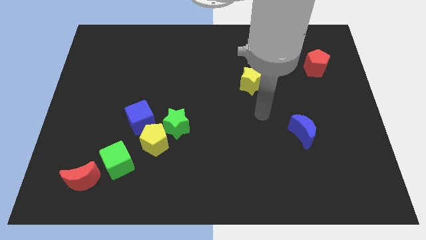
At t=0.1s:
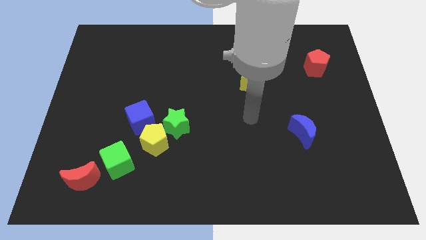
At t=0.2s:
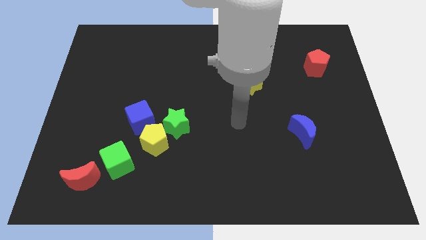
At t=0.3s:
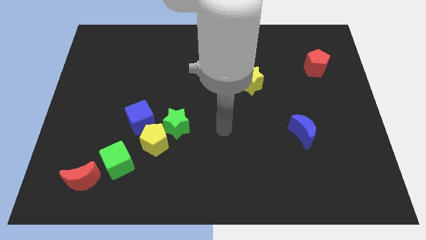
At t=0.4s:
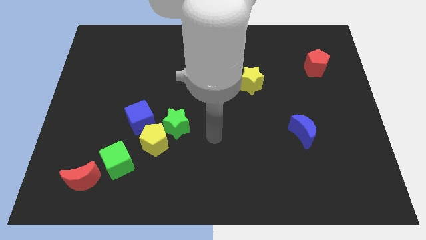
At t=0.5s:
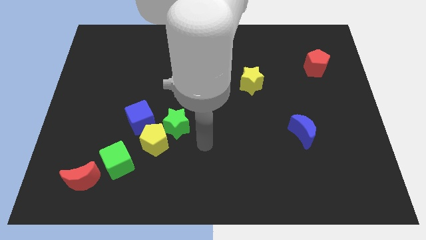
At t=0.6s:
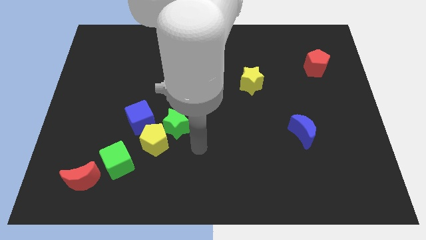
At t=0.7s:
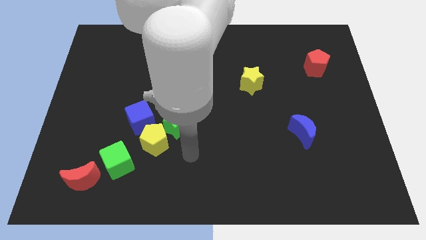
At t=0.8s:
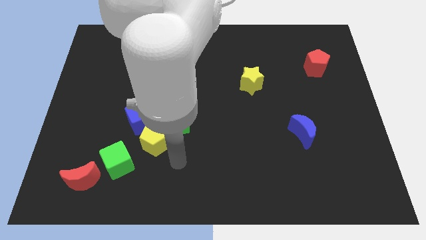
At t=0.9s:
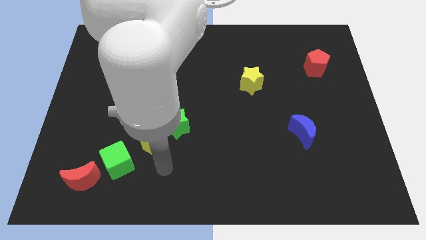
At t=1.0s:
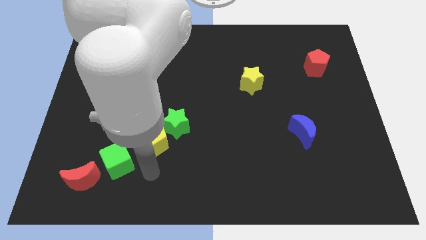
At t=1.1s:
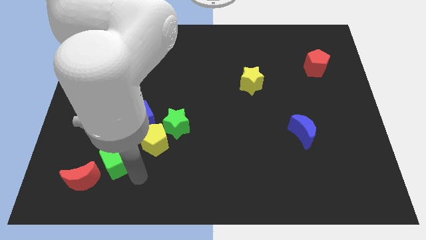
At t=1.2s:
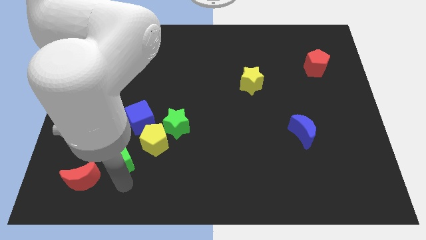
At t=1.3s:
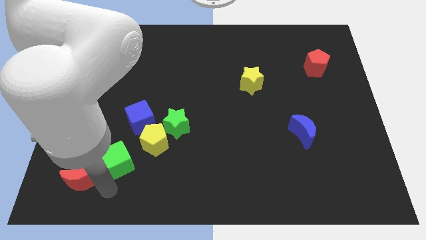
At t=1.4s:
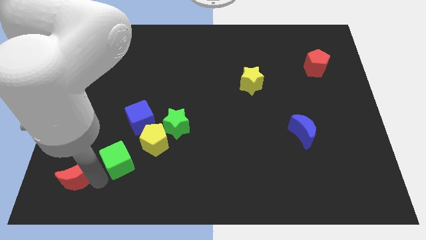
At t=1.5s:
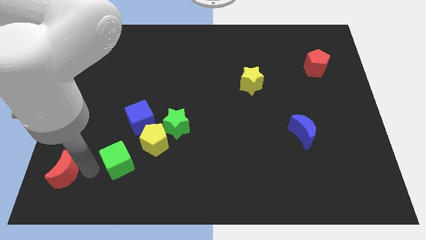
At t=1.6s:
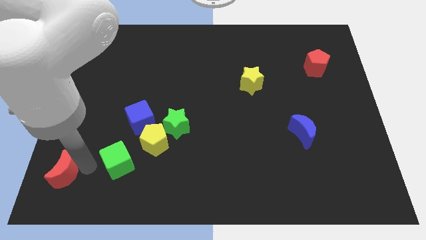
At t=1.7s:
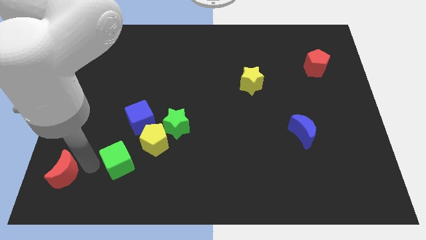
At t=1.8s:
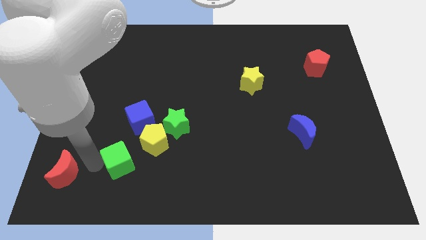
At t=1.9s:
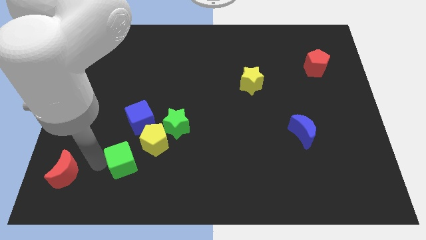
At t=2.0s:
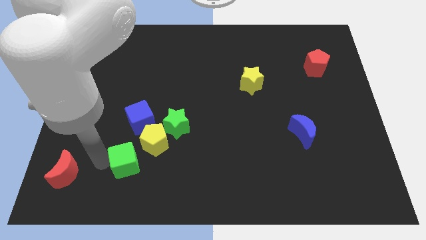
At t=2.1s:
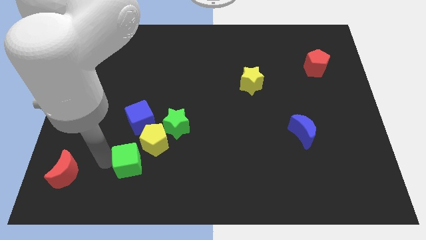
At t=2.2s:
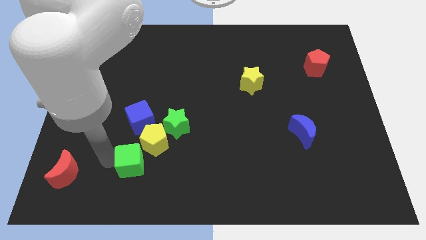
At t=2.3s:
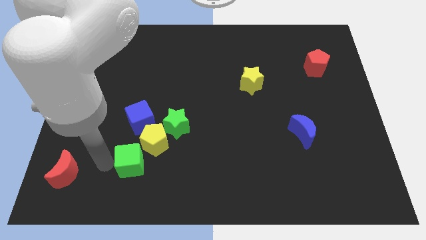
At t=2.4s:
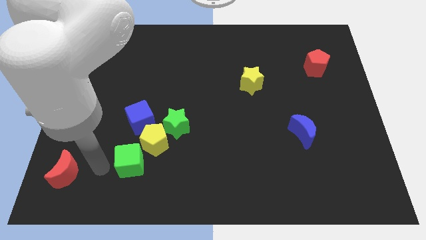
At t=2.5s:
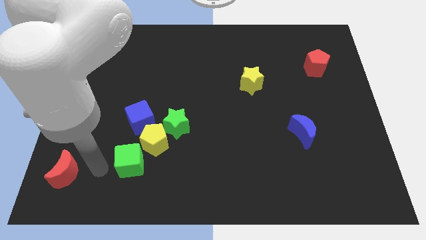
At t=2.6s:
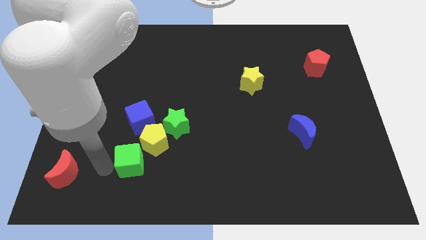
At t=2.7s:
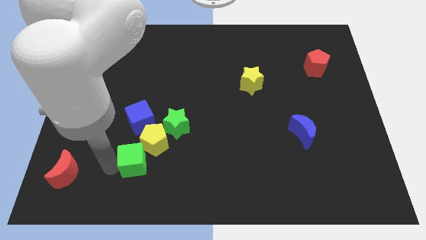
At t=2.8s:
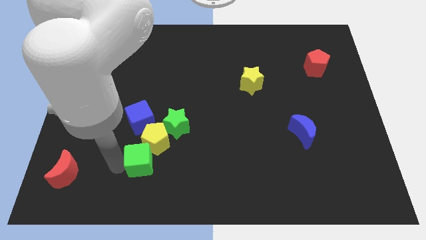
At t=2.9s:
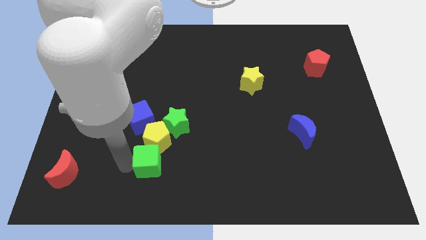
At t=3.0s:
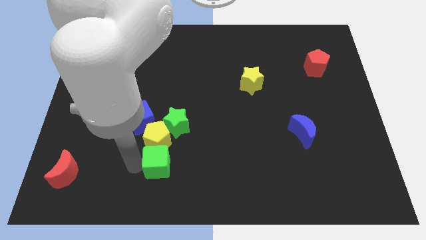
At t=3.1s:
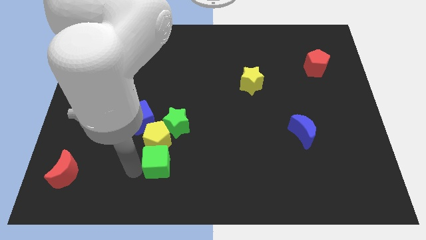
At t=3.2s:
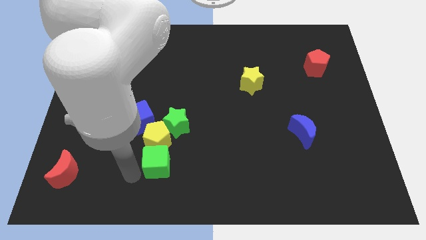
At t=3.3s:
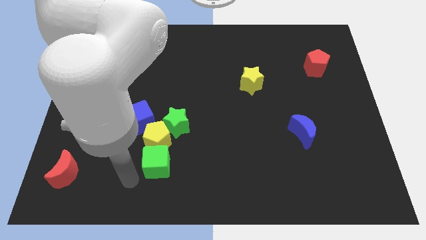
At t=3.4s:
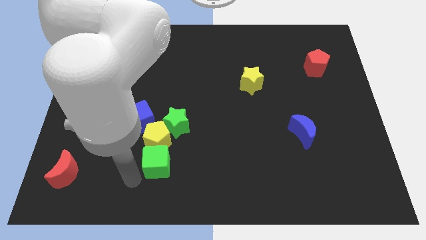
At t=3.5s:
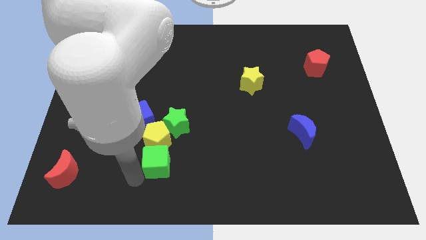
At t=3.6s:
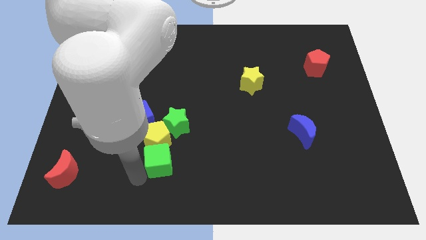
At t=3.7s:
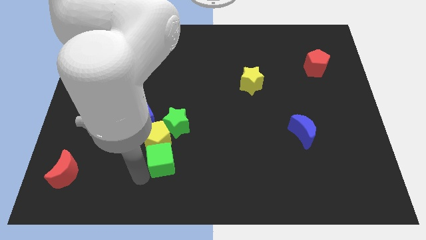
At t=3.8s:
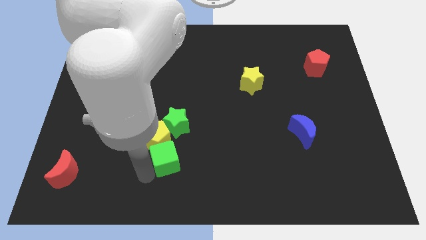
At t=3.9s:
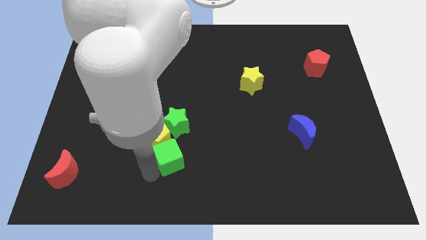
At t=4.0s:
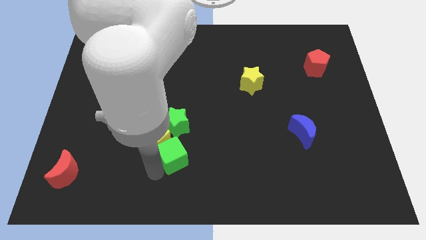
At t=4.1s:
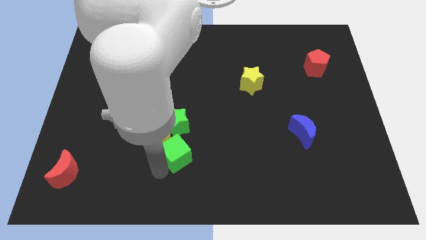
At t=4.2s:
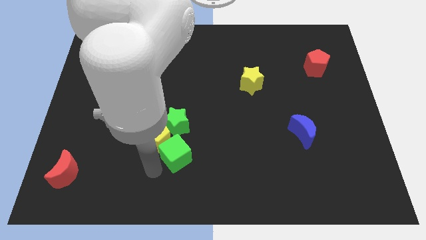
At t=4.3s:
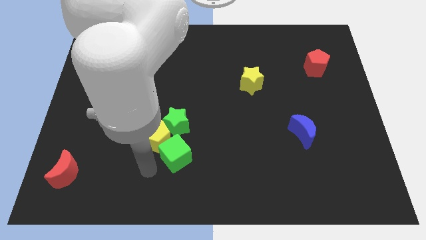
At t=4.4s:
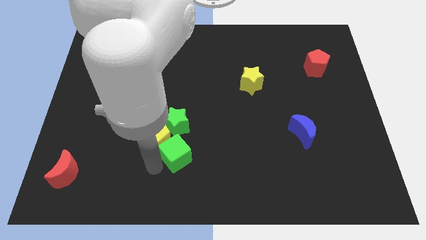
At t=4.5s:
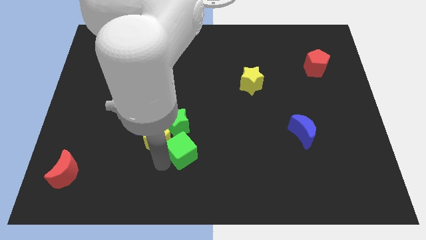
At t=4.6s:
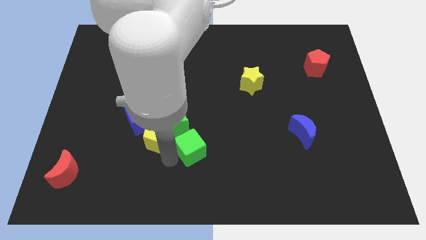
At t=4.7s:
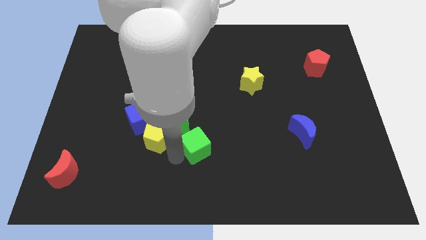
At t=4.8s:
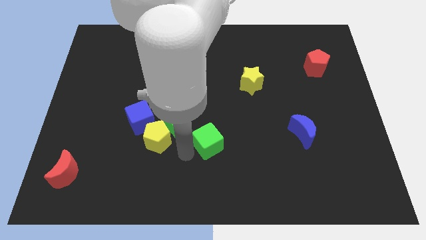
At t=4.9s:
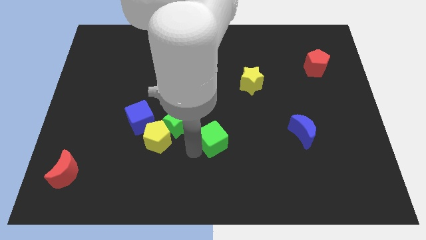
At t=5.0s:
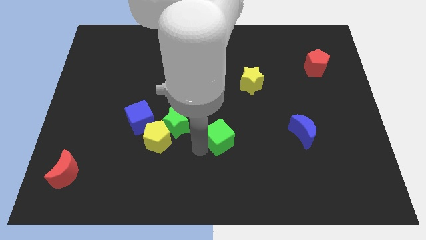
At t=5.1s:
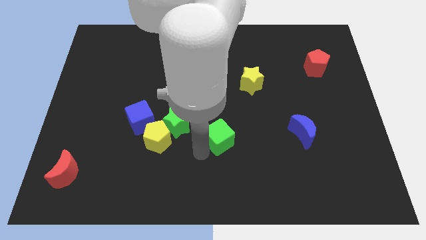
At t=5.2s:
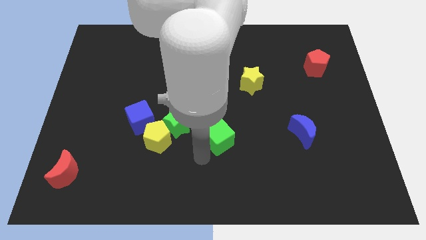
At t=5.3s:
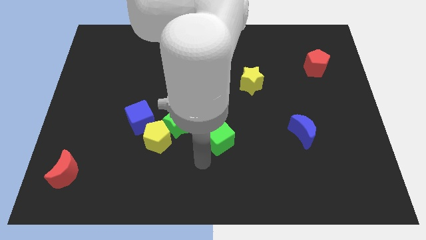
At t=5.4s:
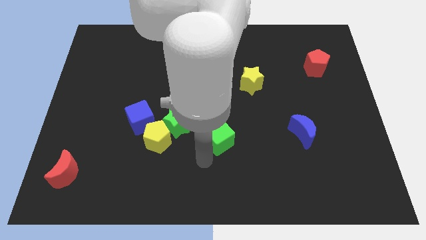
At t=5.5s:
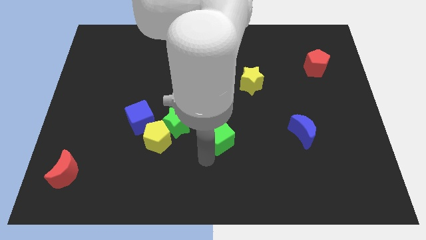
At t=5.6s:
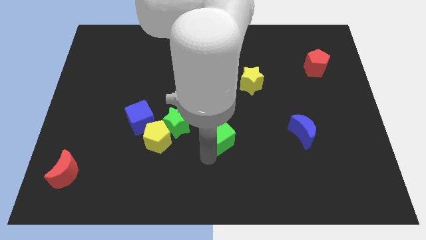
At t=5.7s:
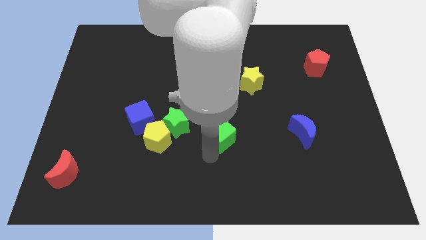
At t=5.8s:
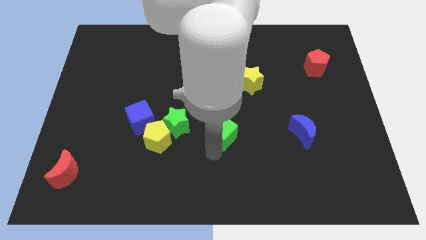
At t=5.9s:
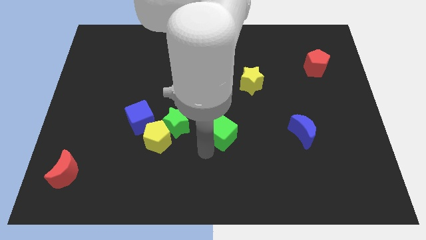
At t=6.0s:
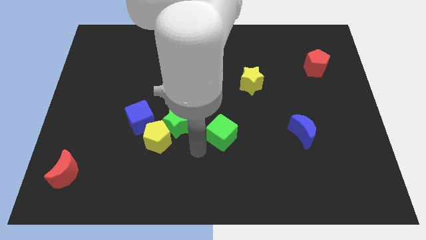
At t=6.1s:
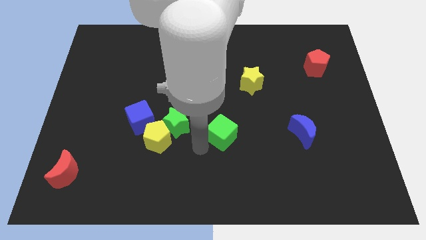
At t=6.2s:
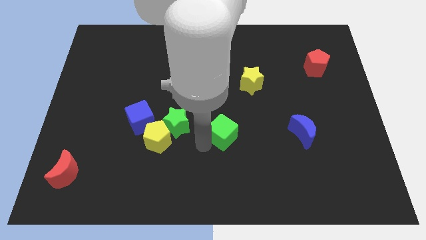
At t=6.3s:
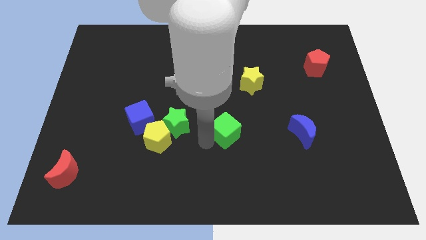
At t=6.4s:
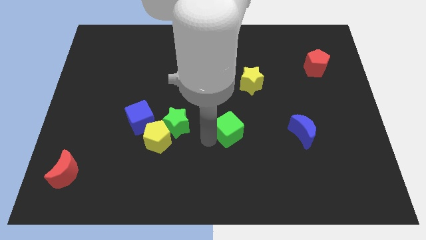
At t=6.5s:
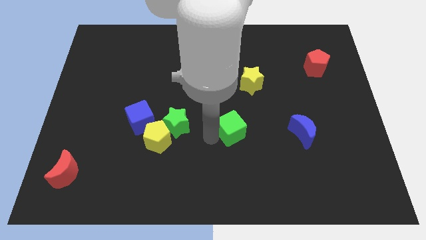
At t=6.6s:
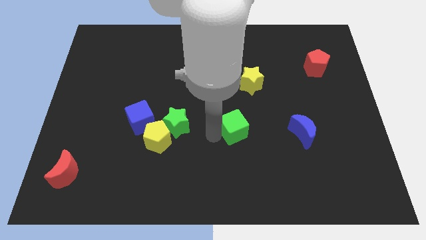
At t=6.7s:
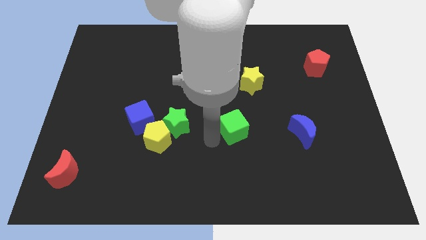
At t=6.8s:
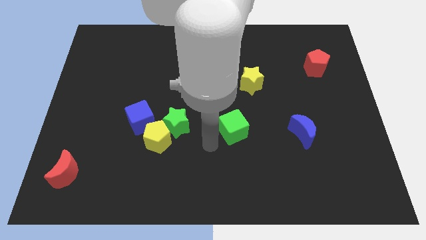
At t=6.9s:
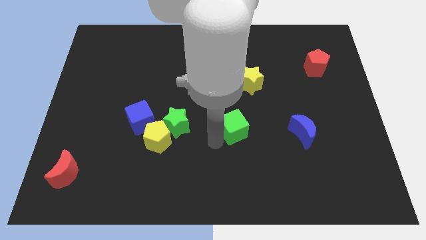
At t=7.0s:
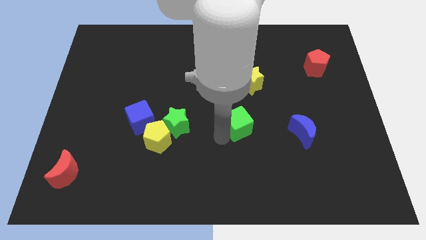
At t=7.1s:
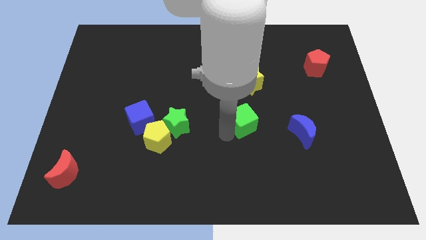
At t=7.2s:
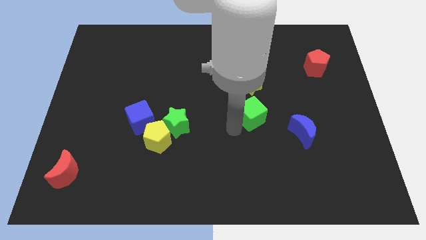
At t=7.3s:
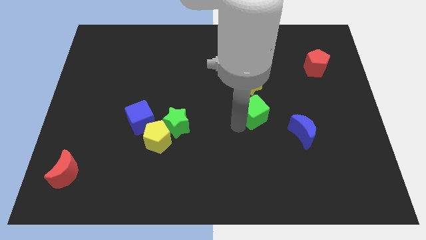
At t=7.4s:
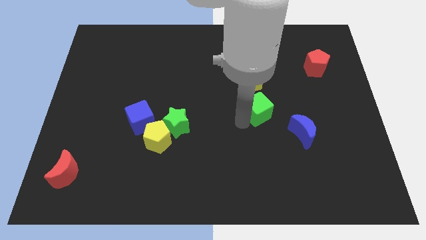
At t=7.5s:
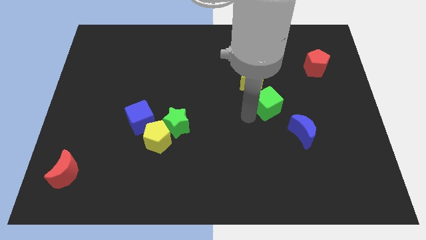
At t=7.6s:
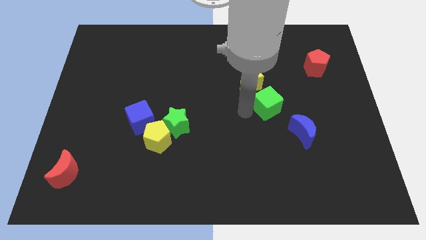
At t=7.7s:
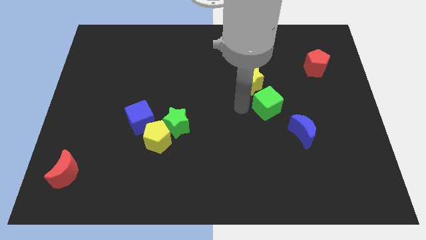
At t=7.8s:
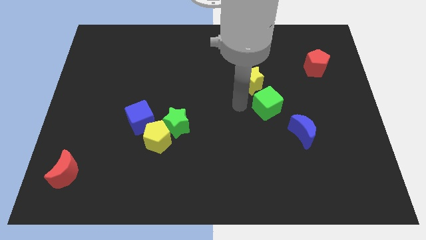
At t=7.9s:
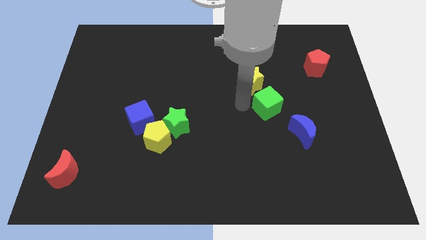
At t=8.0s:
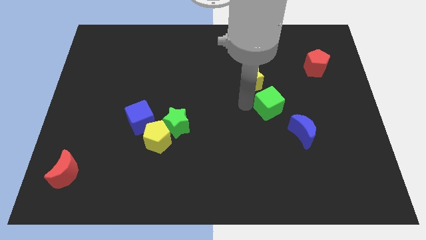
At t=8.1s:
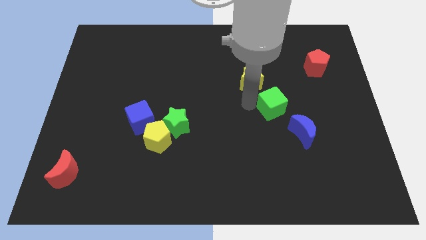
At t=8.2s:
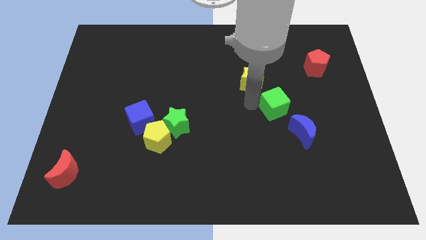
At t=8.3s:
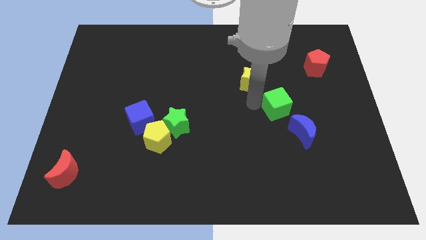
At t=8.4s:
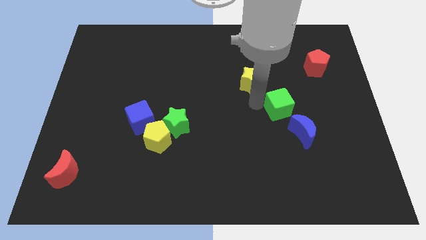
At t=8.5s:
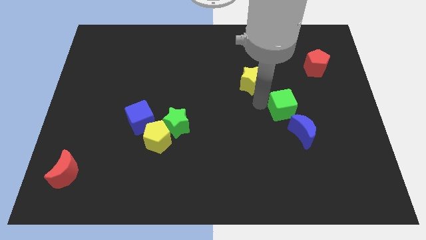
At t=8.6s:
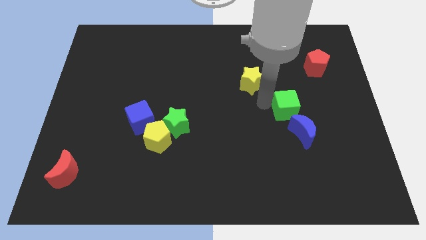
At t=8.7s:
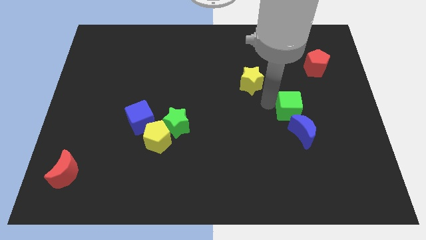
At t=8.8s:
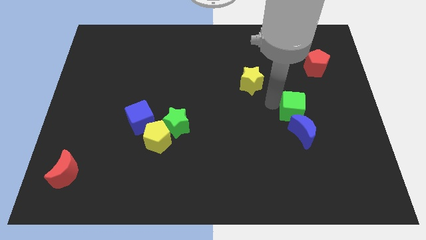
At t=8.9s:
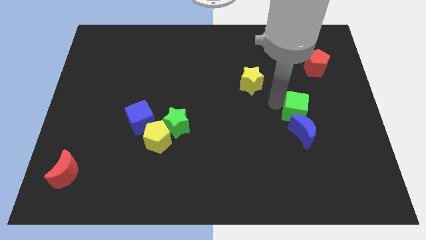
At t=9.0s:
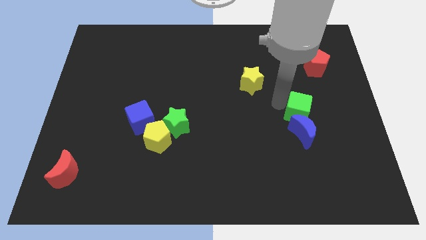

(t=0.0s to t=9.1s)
slide the green cube to the top right of the blue moon
